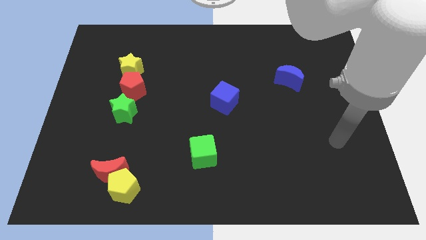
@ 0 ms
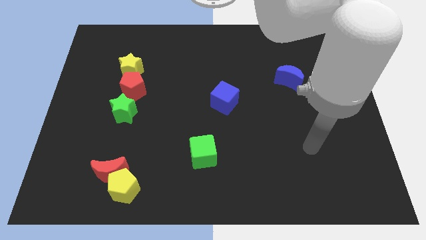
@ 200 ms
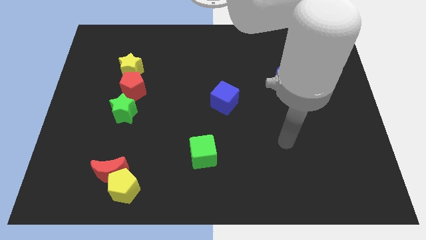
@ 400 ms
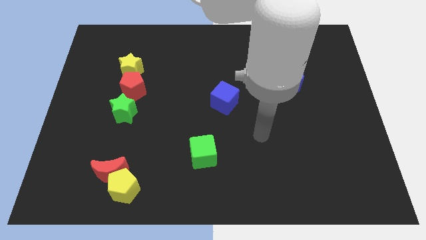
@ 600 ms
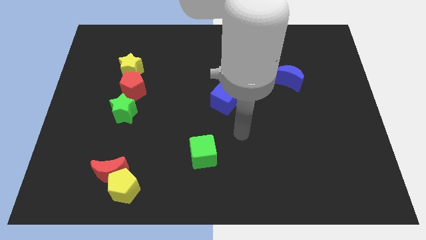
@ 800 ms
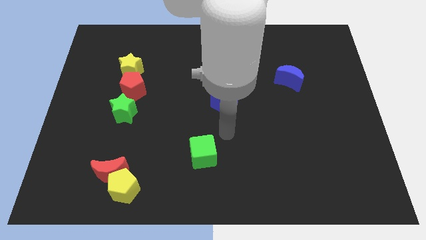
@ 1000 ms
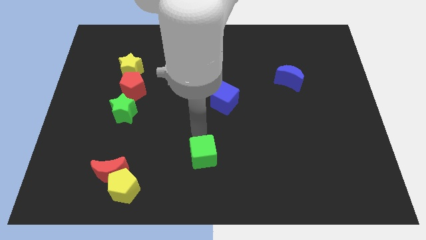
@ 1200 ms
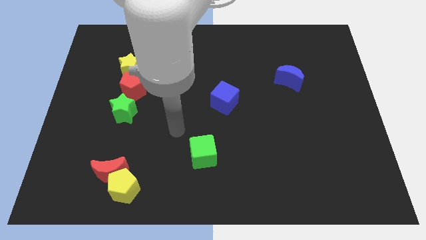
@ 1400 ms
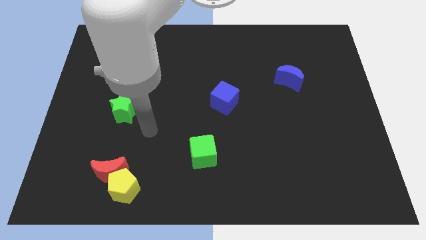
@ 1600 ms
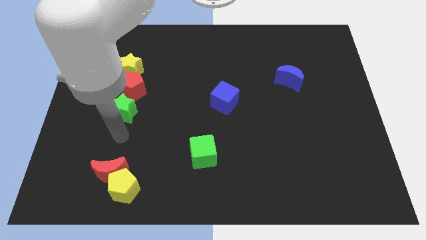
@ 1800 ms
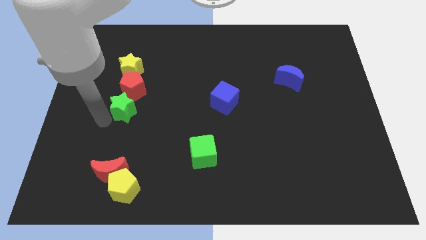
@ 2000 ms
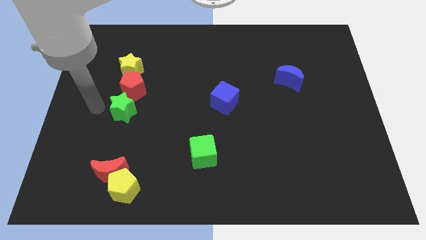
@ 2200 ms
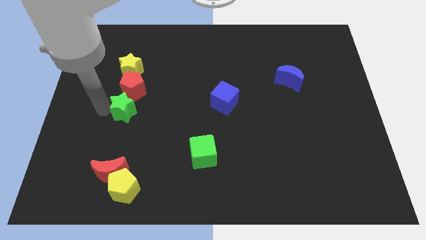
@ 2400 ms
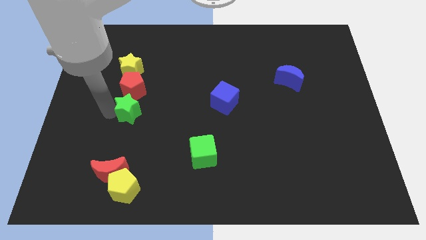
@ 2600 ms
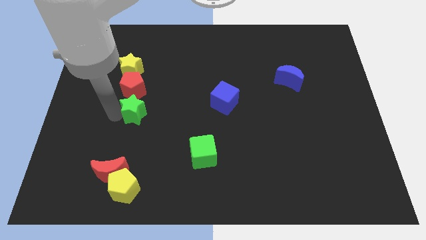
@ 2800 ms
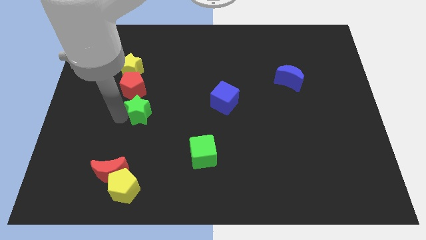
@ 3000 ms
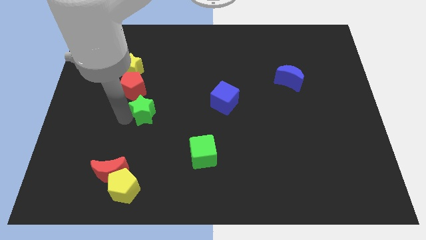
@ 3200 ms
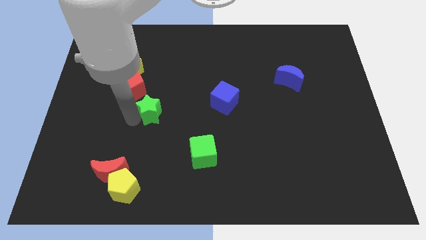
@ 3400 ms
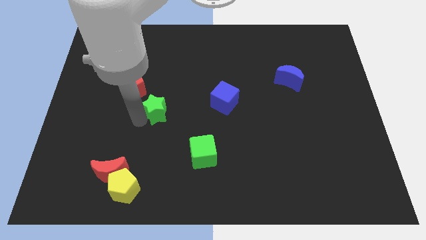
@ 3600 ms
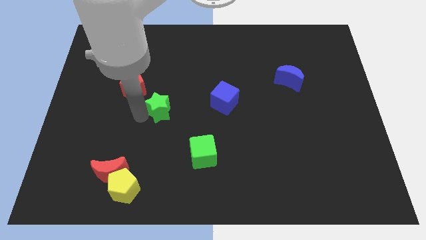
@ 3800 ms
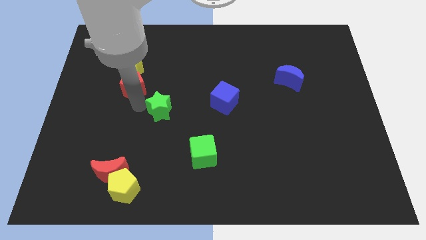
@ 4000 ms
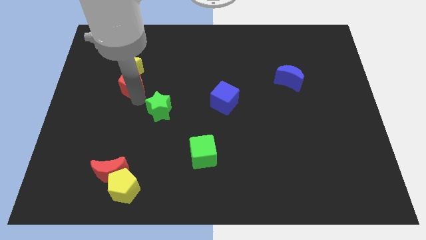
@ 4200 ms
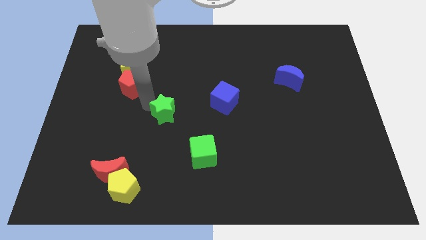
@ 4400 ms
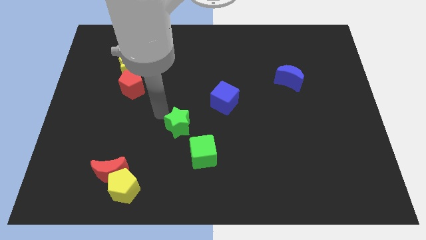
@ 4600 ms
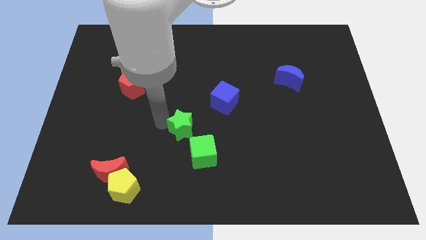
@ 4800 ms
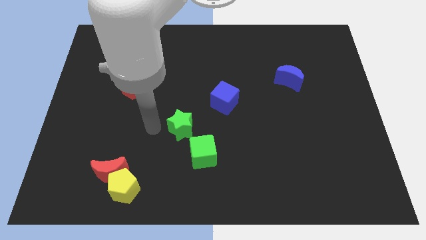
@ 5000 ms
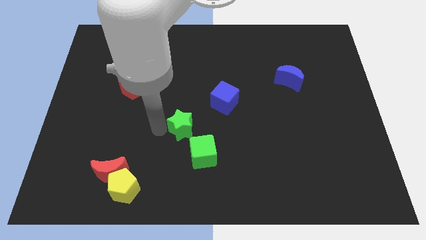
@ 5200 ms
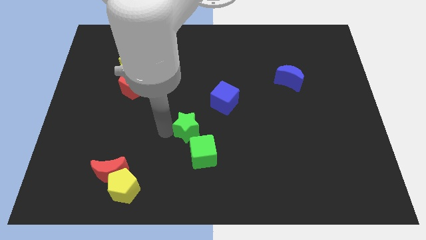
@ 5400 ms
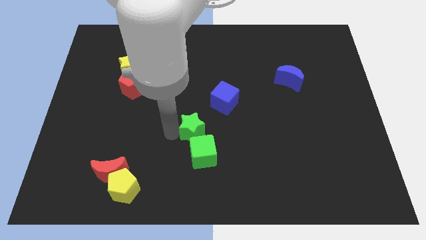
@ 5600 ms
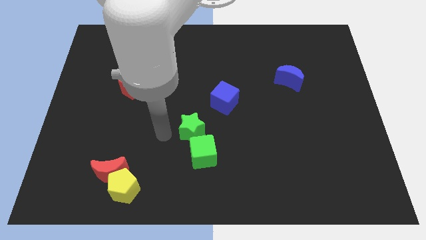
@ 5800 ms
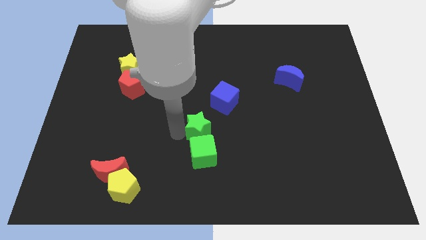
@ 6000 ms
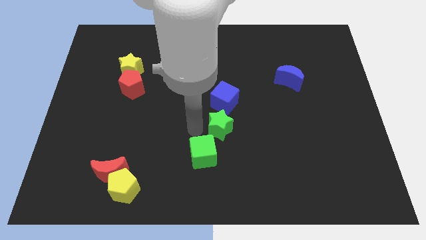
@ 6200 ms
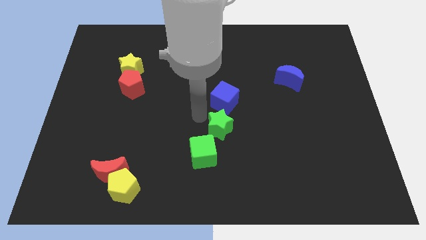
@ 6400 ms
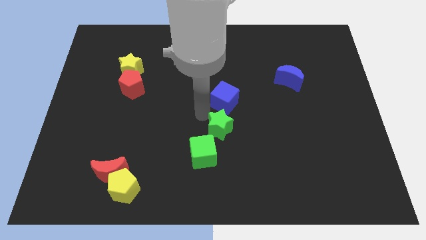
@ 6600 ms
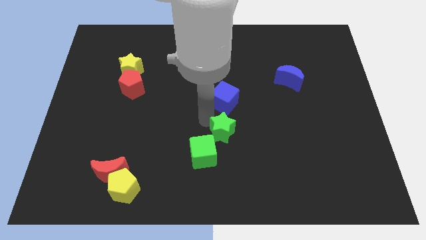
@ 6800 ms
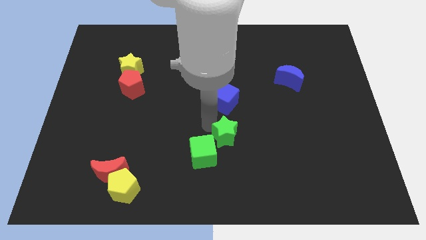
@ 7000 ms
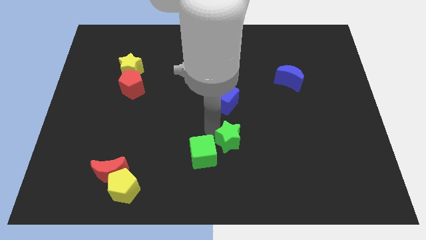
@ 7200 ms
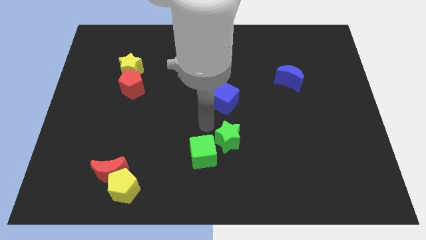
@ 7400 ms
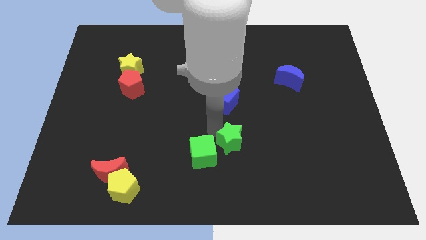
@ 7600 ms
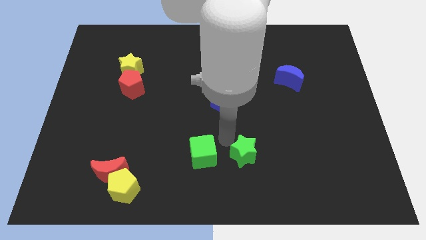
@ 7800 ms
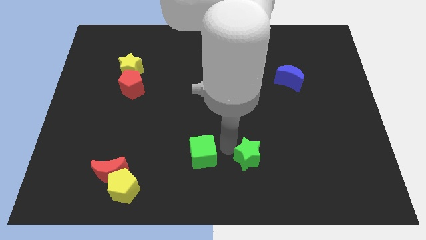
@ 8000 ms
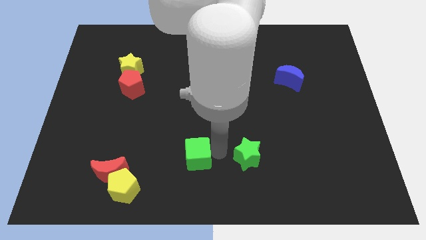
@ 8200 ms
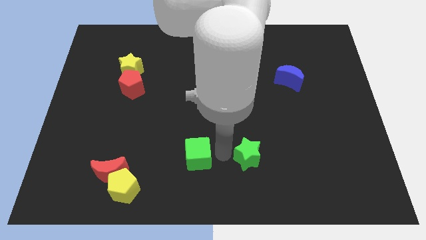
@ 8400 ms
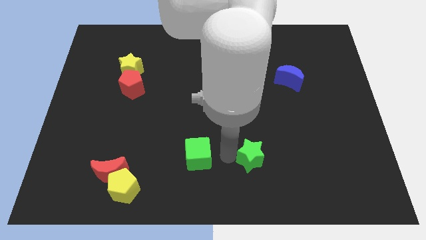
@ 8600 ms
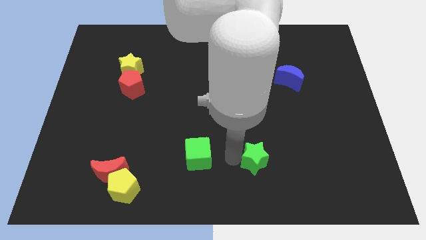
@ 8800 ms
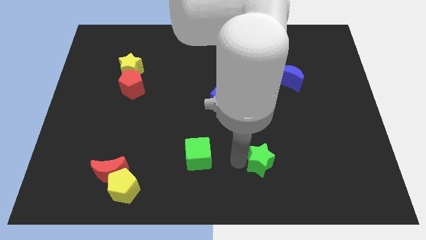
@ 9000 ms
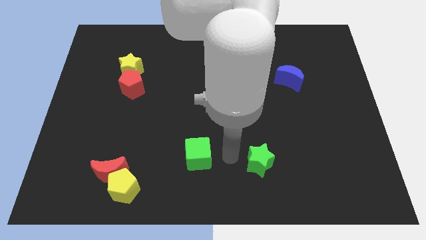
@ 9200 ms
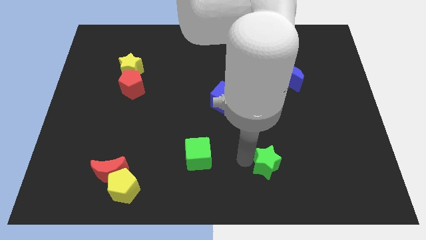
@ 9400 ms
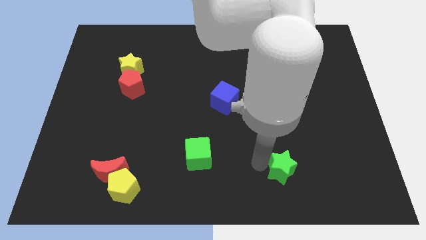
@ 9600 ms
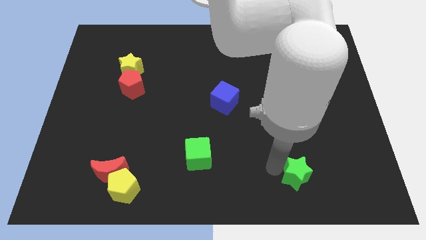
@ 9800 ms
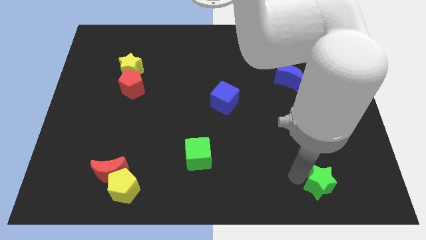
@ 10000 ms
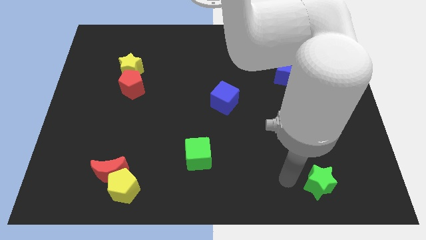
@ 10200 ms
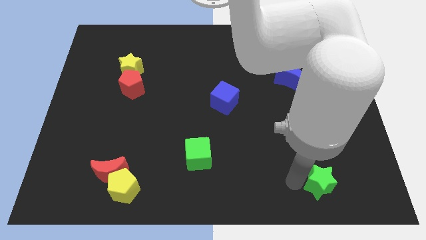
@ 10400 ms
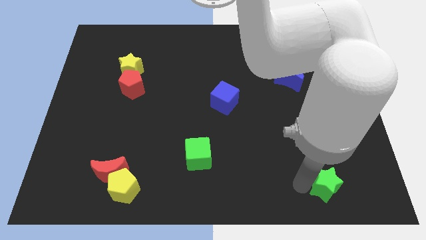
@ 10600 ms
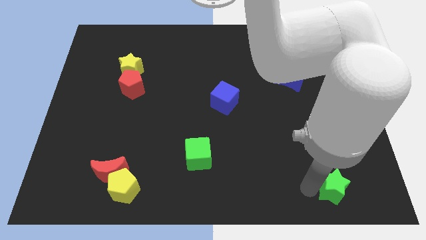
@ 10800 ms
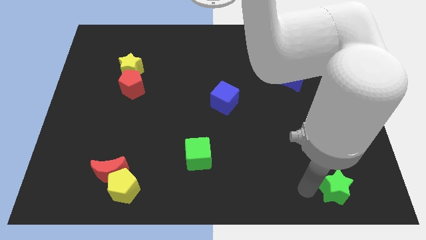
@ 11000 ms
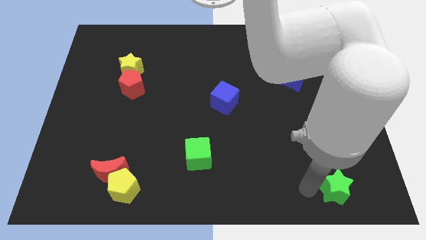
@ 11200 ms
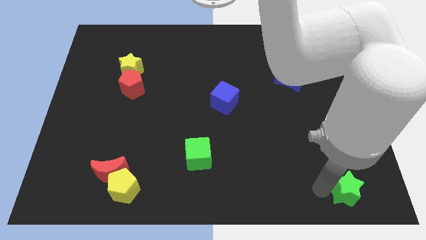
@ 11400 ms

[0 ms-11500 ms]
move the green star to the bottom right of the board

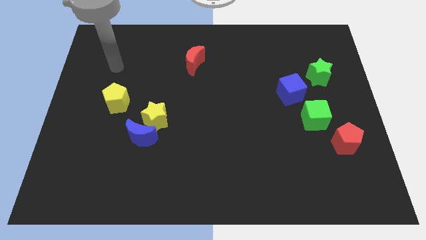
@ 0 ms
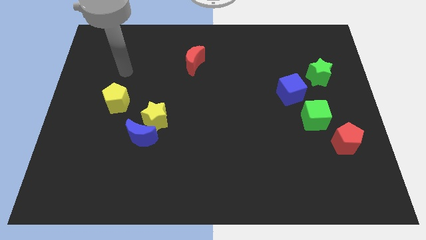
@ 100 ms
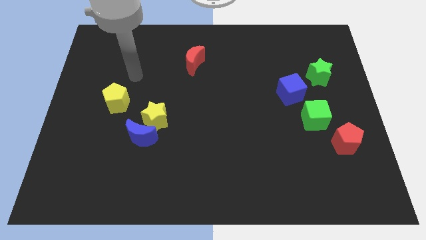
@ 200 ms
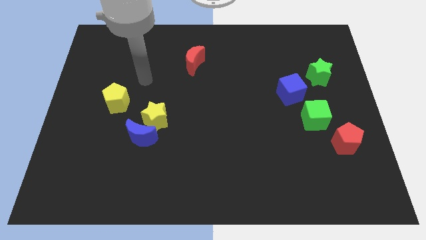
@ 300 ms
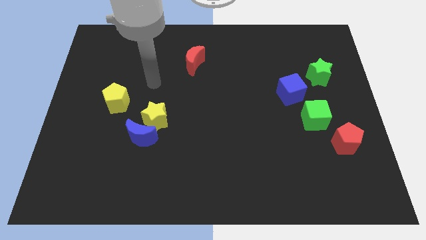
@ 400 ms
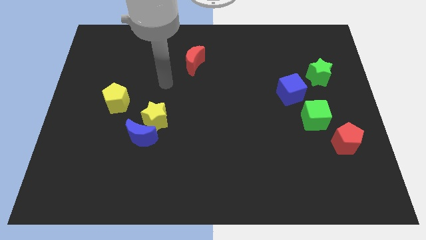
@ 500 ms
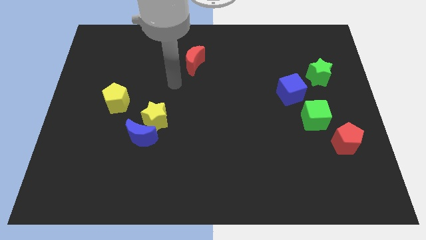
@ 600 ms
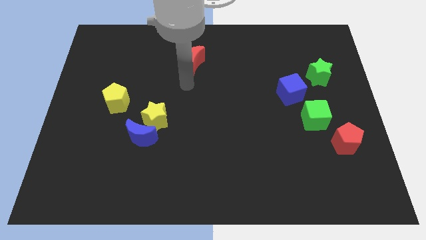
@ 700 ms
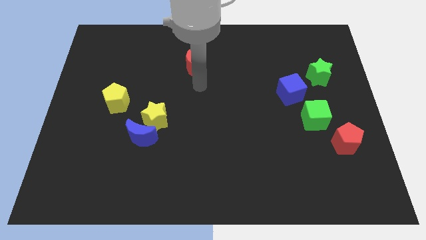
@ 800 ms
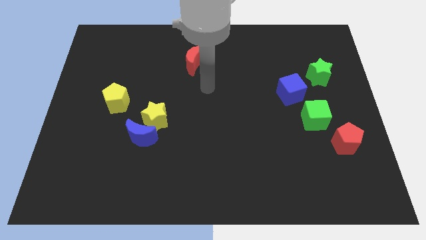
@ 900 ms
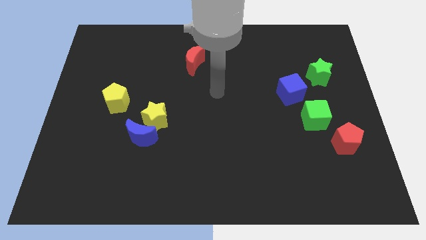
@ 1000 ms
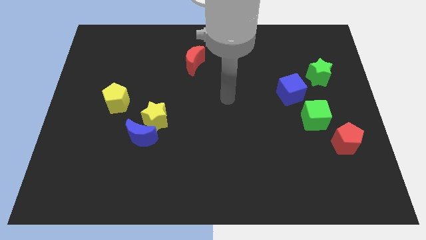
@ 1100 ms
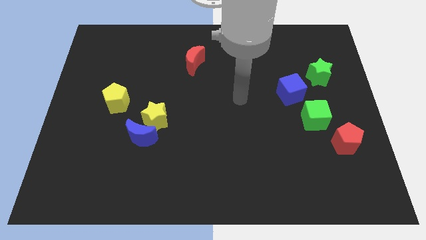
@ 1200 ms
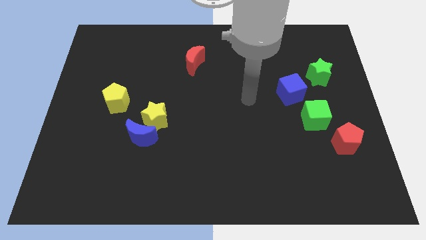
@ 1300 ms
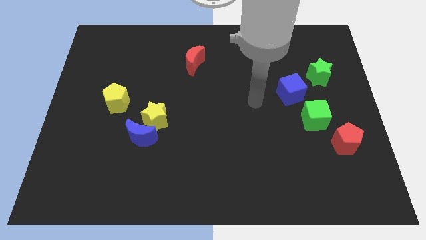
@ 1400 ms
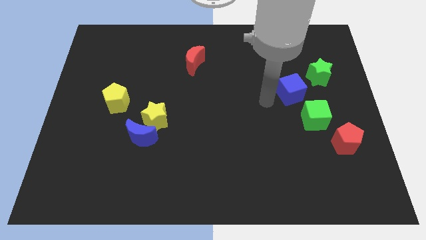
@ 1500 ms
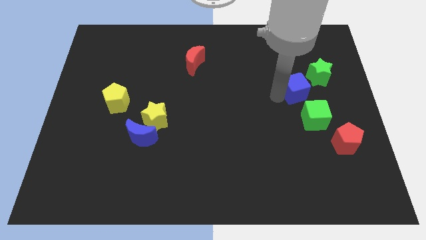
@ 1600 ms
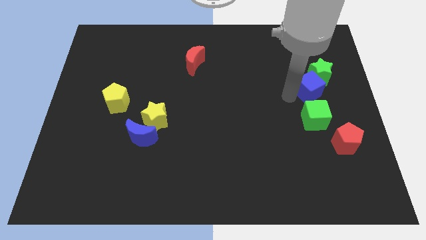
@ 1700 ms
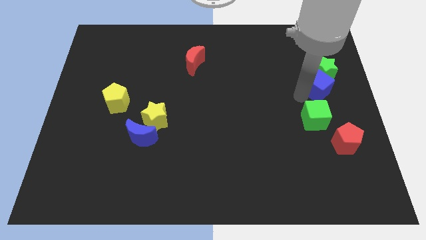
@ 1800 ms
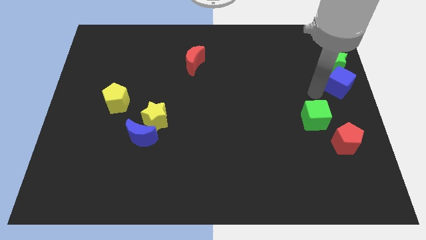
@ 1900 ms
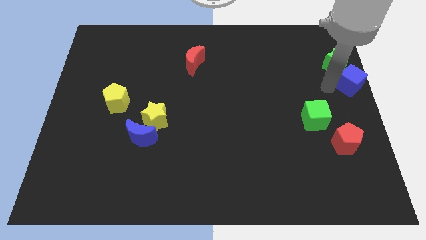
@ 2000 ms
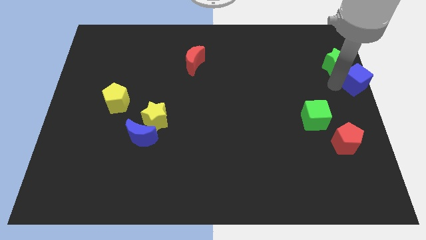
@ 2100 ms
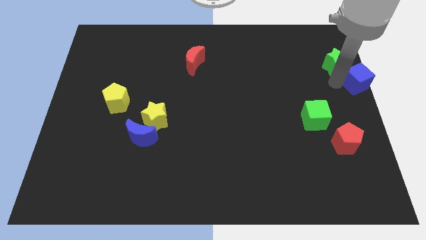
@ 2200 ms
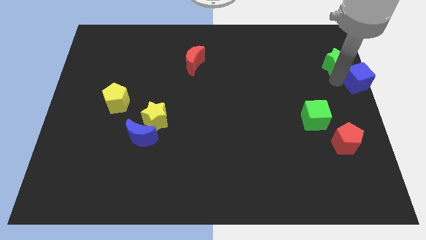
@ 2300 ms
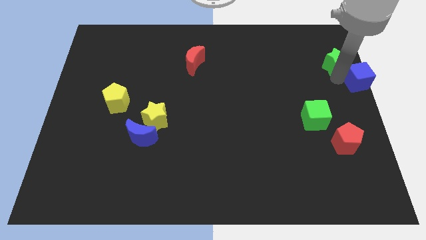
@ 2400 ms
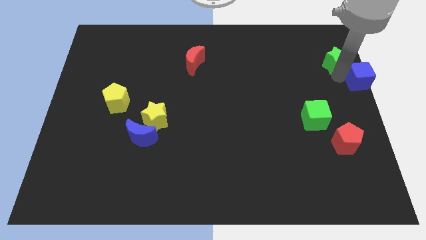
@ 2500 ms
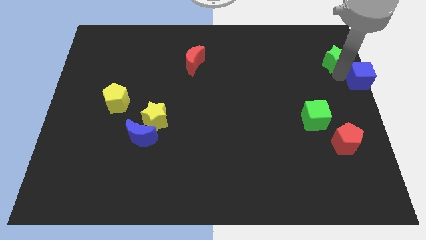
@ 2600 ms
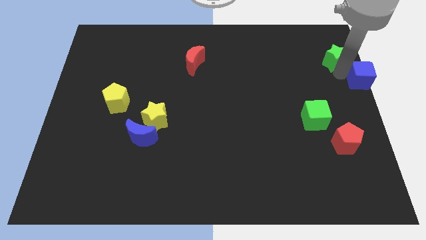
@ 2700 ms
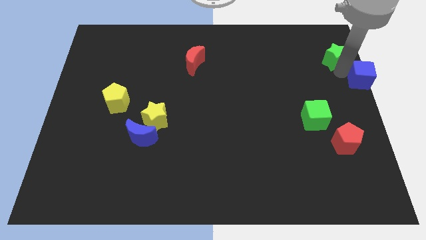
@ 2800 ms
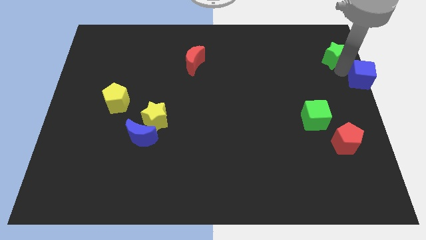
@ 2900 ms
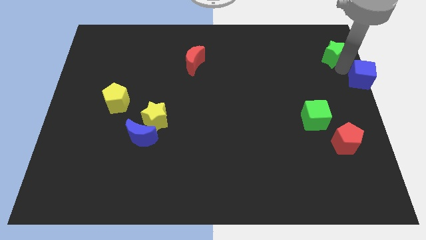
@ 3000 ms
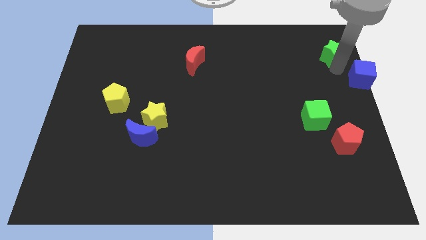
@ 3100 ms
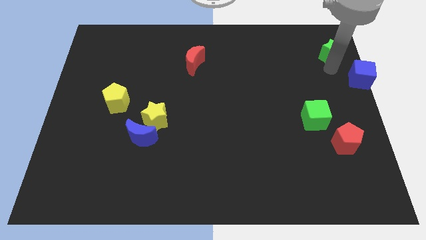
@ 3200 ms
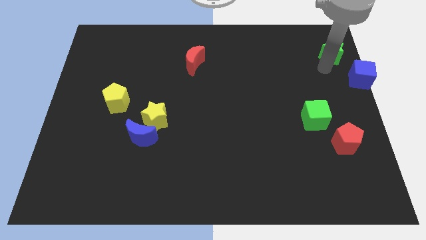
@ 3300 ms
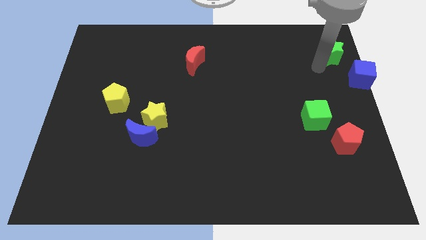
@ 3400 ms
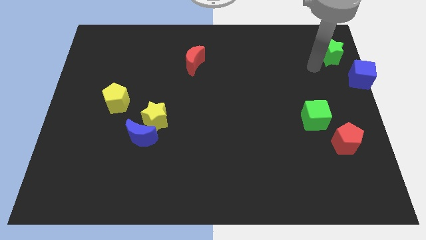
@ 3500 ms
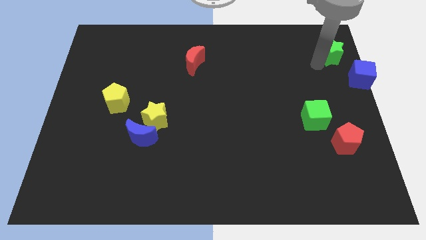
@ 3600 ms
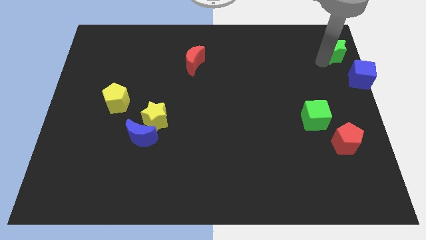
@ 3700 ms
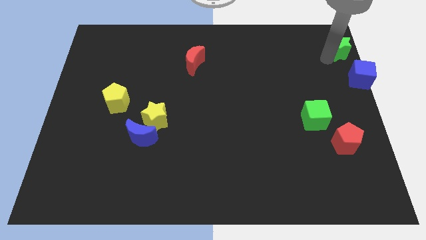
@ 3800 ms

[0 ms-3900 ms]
put the green star to the top right corner
